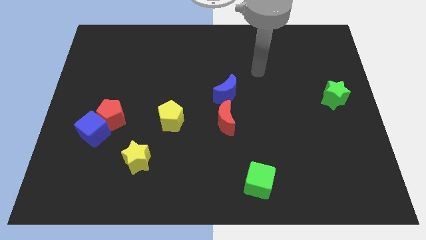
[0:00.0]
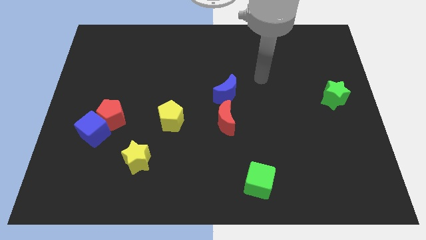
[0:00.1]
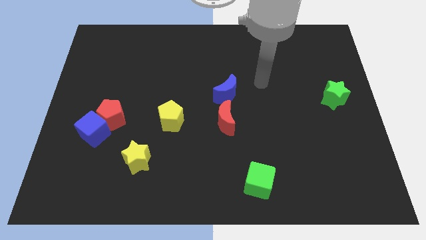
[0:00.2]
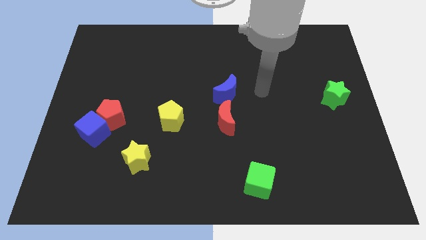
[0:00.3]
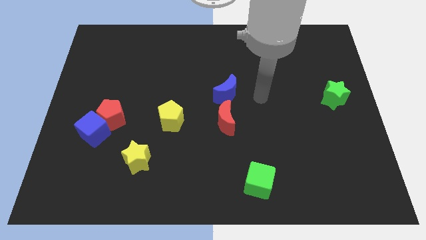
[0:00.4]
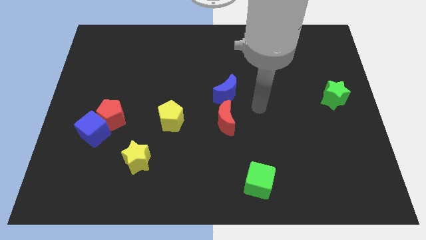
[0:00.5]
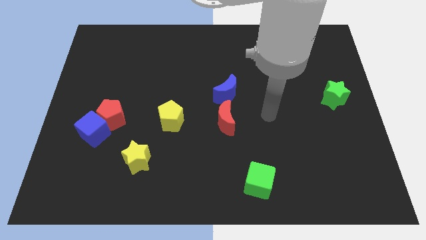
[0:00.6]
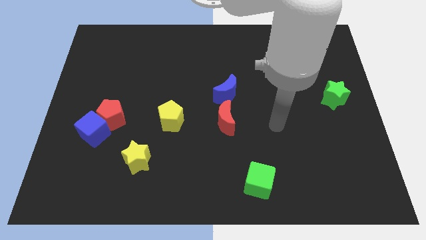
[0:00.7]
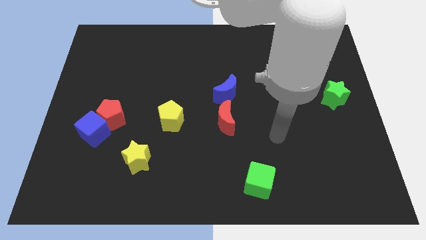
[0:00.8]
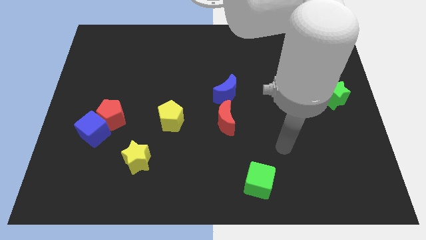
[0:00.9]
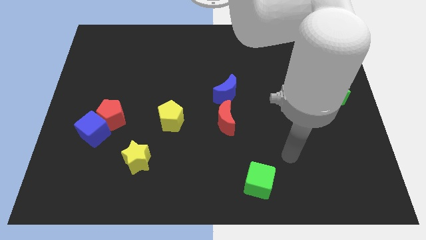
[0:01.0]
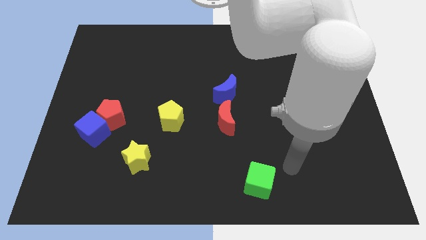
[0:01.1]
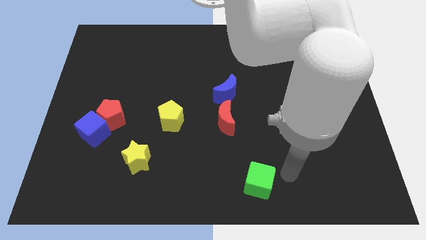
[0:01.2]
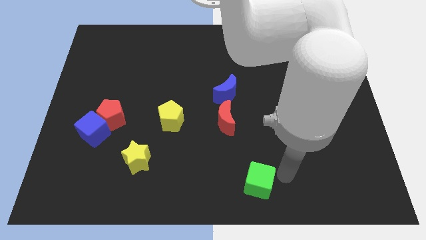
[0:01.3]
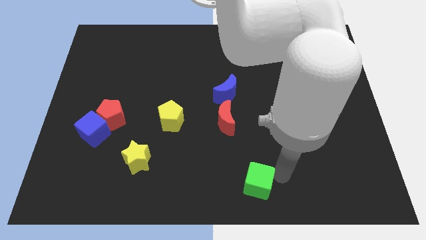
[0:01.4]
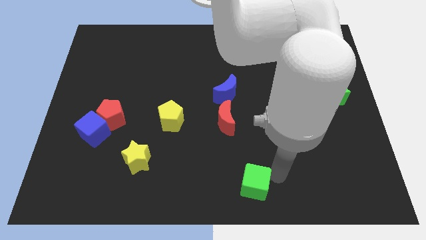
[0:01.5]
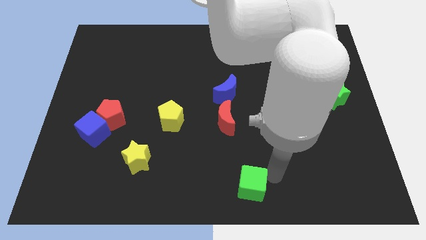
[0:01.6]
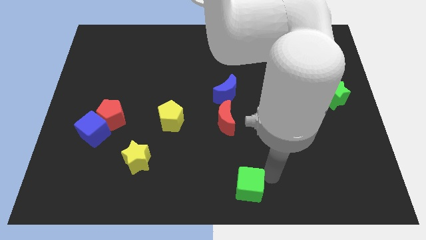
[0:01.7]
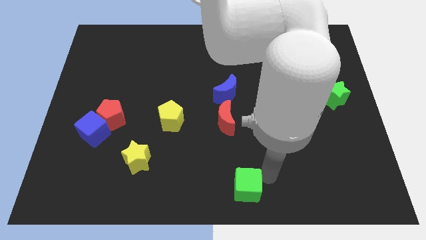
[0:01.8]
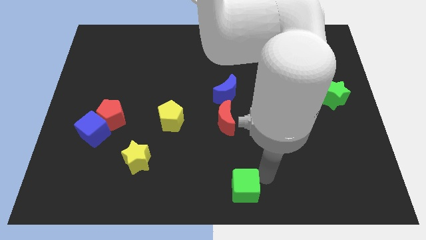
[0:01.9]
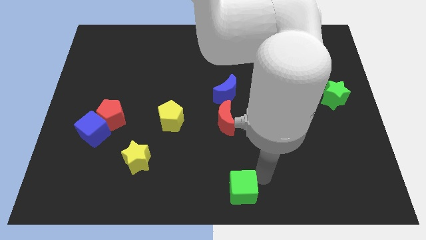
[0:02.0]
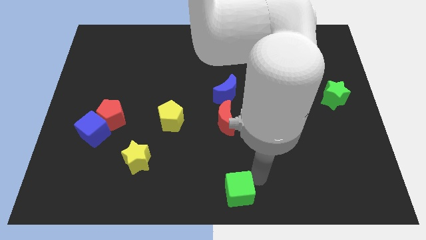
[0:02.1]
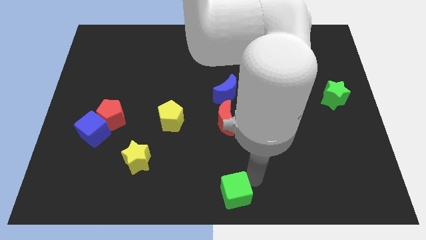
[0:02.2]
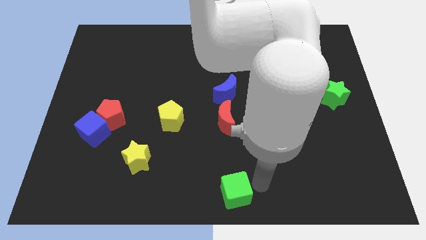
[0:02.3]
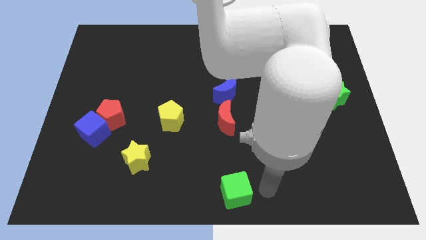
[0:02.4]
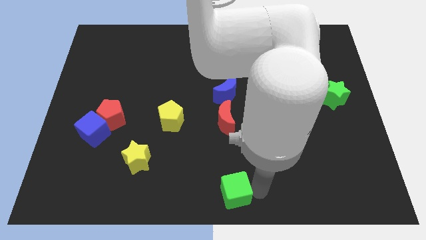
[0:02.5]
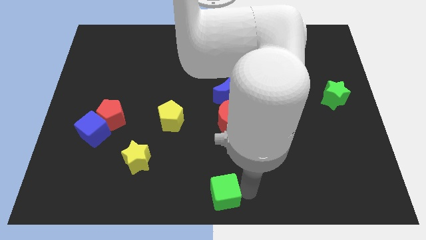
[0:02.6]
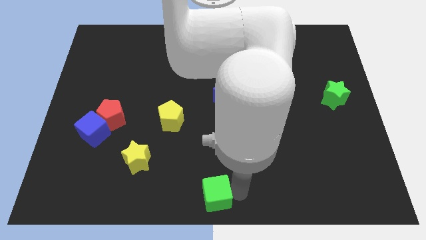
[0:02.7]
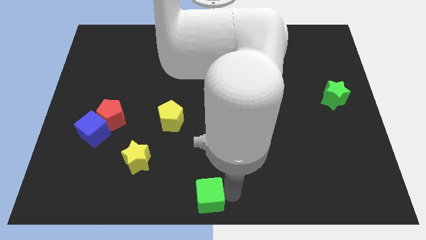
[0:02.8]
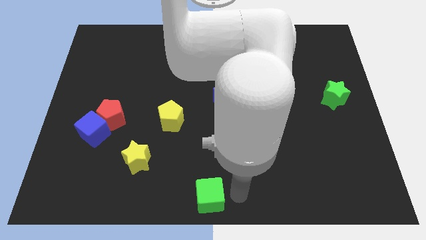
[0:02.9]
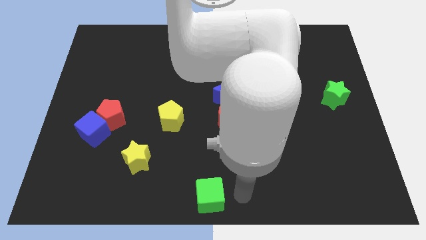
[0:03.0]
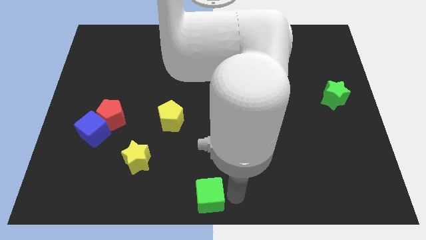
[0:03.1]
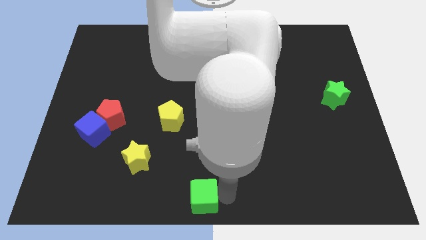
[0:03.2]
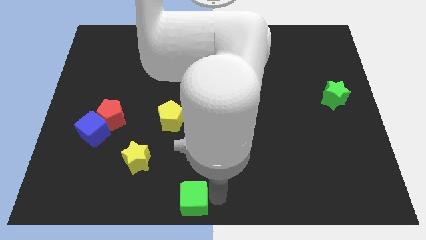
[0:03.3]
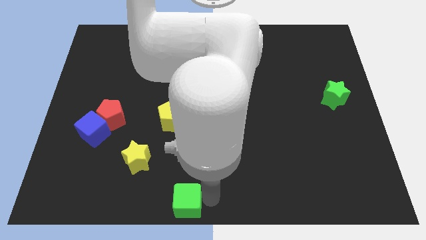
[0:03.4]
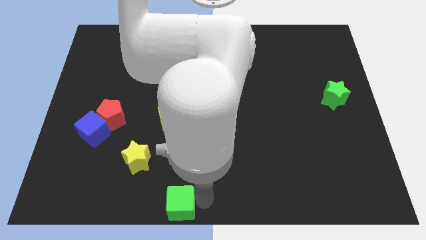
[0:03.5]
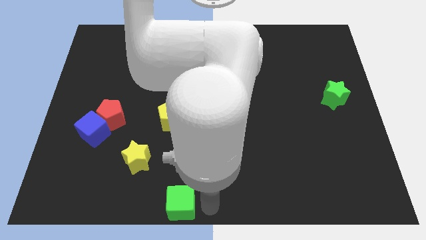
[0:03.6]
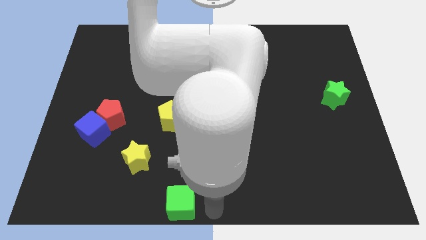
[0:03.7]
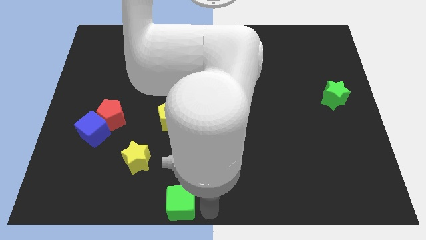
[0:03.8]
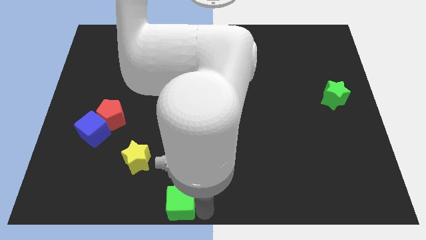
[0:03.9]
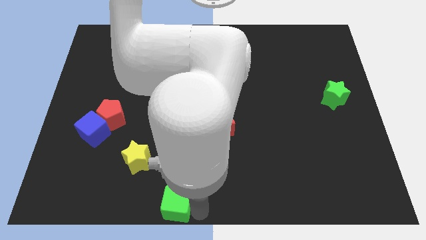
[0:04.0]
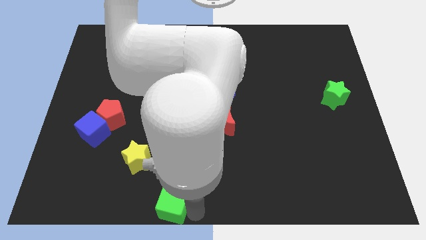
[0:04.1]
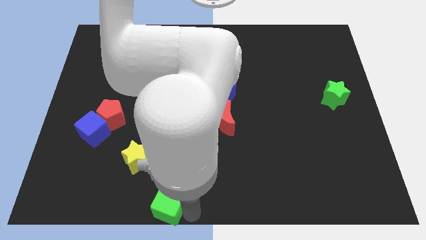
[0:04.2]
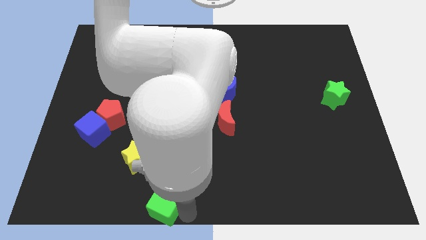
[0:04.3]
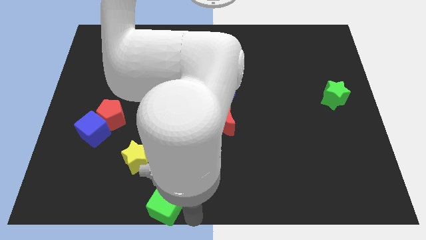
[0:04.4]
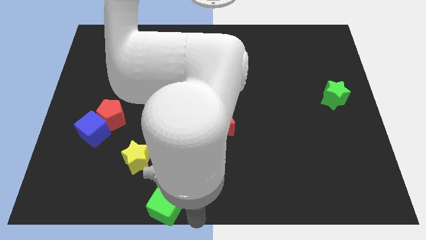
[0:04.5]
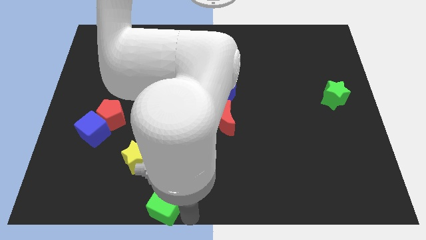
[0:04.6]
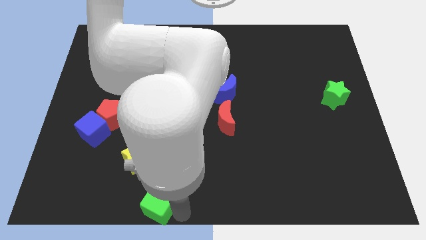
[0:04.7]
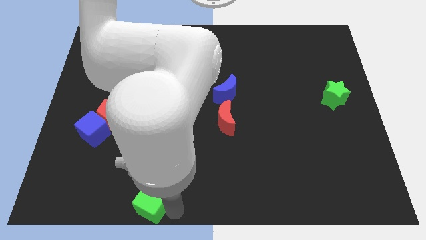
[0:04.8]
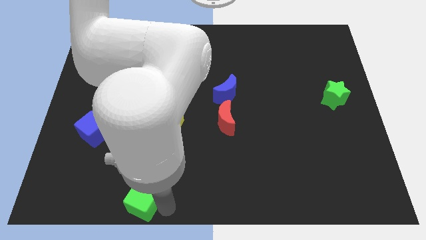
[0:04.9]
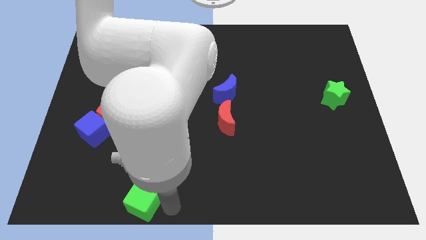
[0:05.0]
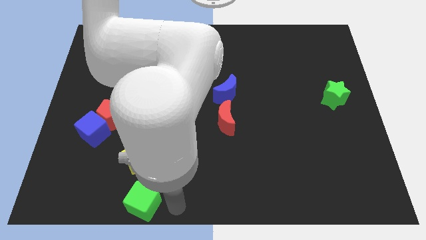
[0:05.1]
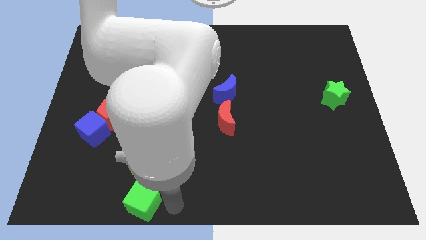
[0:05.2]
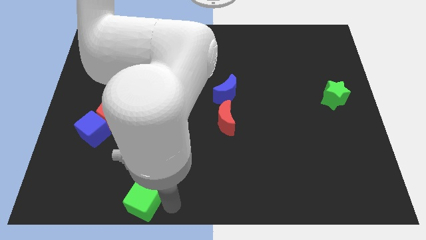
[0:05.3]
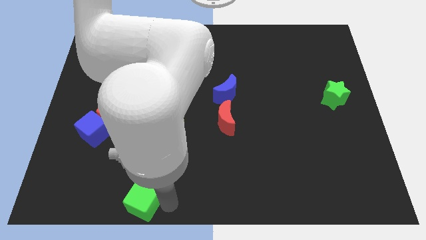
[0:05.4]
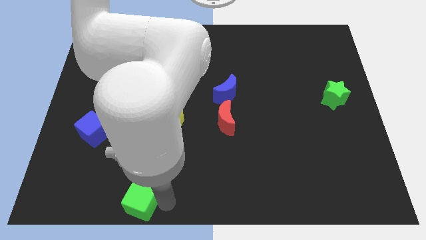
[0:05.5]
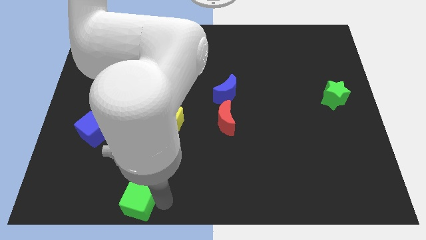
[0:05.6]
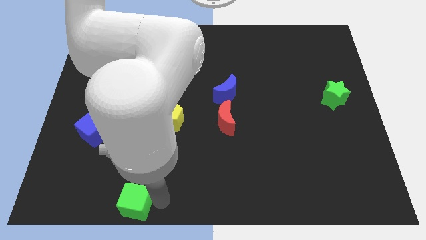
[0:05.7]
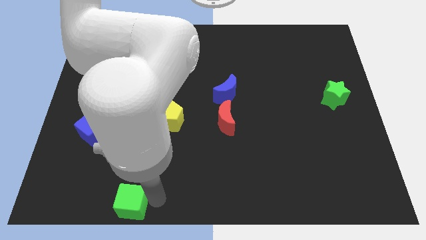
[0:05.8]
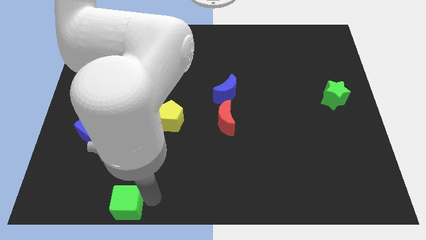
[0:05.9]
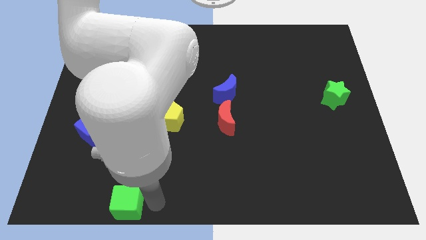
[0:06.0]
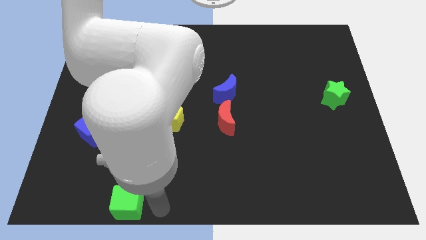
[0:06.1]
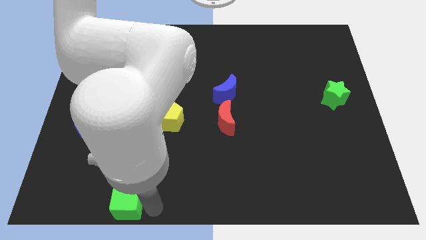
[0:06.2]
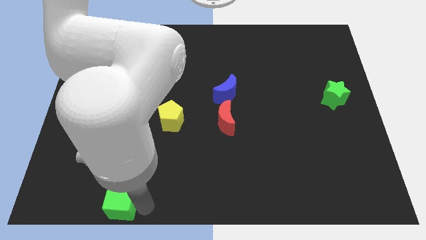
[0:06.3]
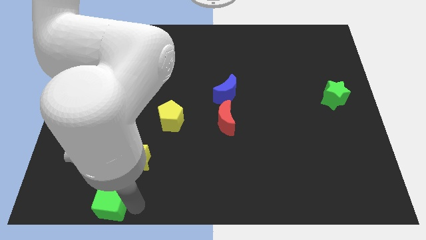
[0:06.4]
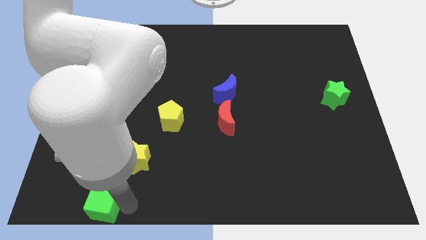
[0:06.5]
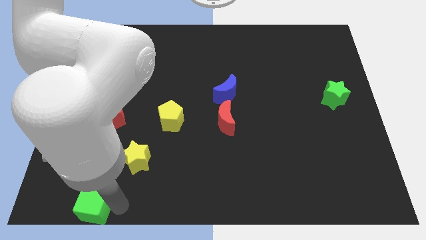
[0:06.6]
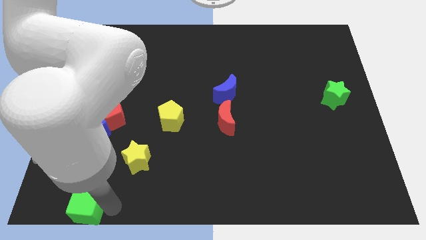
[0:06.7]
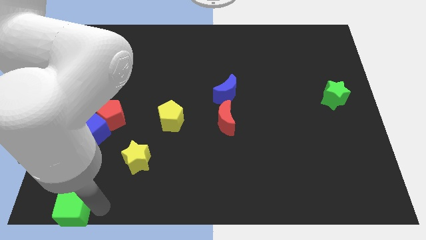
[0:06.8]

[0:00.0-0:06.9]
move the green cube to the bottom left of the board
